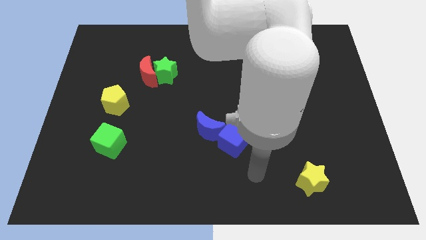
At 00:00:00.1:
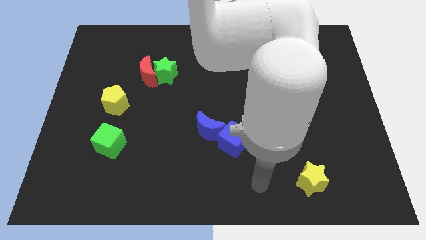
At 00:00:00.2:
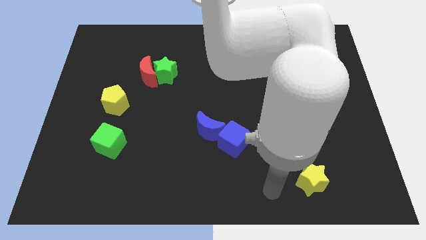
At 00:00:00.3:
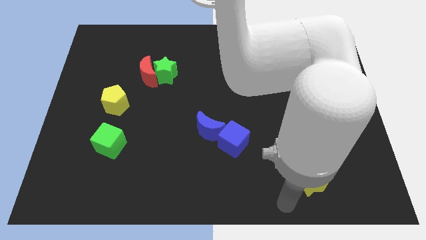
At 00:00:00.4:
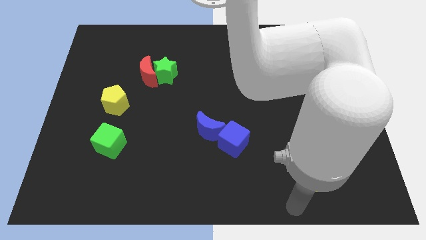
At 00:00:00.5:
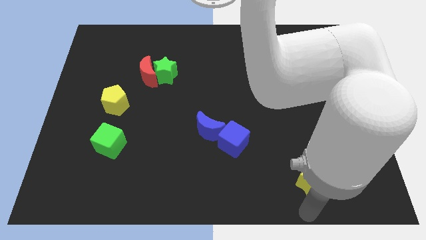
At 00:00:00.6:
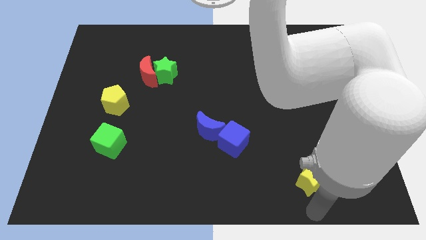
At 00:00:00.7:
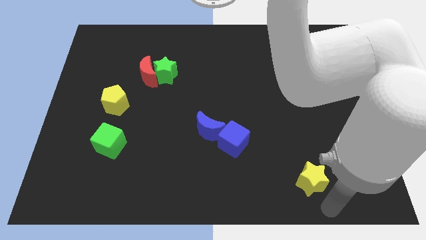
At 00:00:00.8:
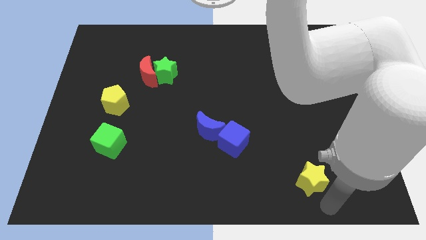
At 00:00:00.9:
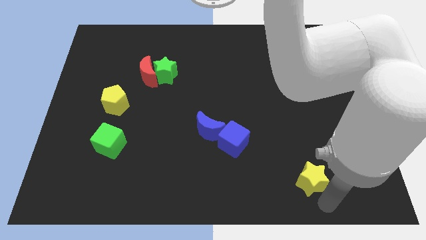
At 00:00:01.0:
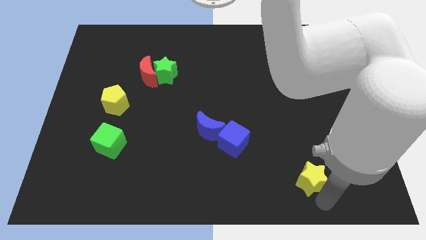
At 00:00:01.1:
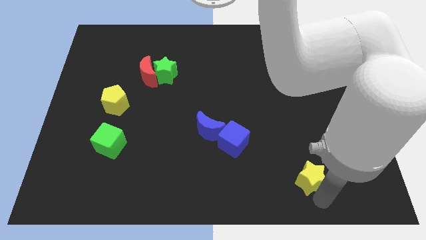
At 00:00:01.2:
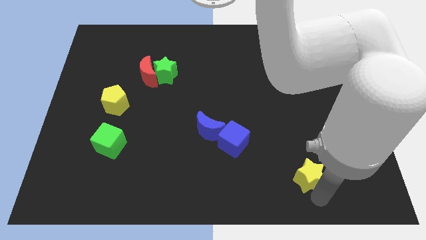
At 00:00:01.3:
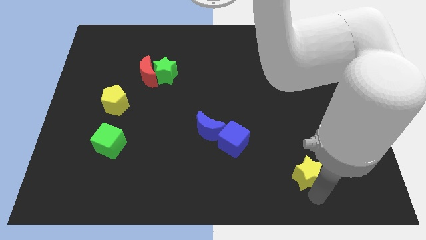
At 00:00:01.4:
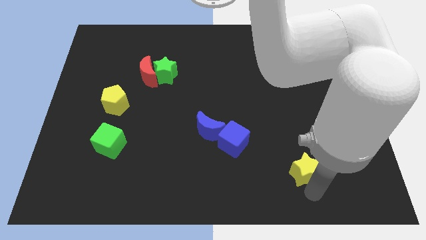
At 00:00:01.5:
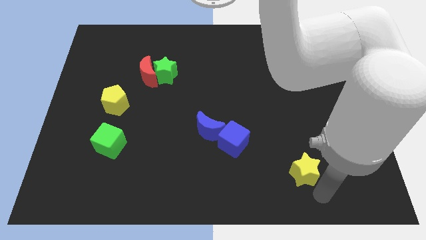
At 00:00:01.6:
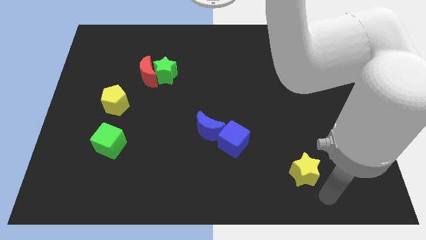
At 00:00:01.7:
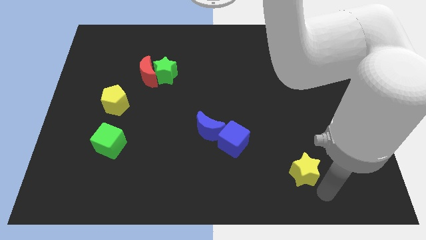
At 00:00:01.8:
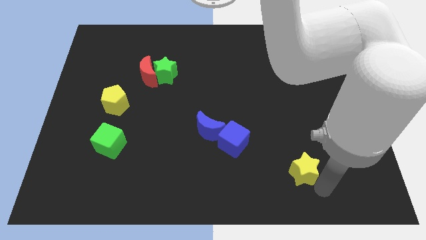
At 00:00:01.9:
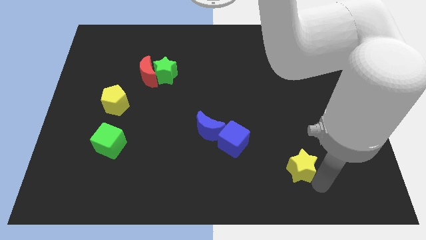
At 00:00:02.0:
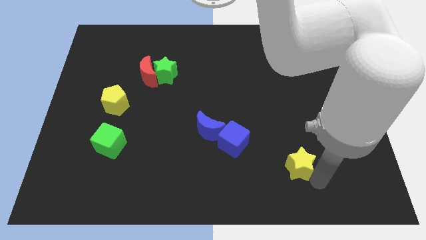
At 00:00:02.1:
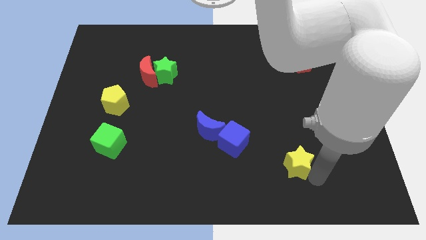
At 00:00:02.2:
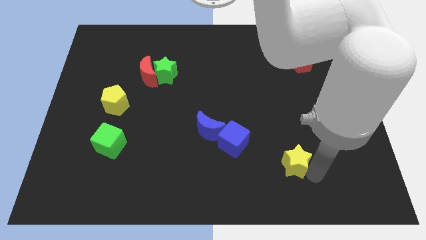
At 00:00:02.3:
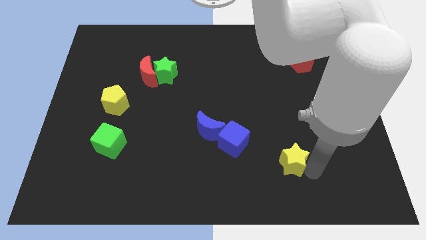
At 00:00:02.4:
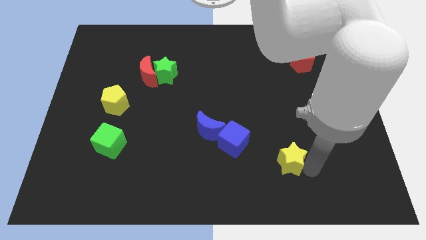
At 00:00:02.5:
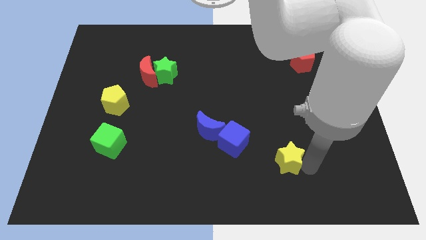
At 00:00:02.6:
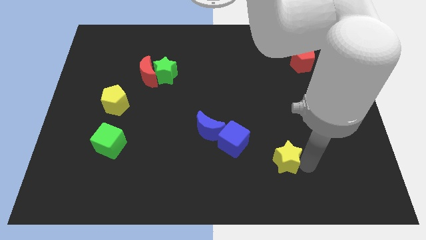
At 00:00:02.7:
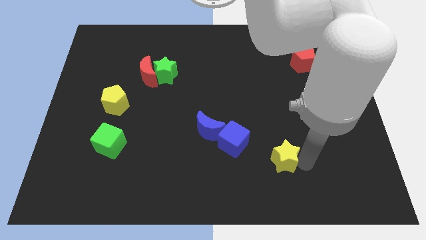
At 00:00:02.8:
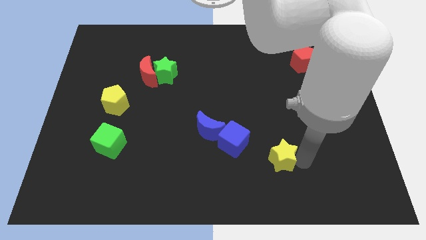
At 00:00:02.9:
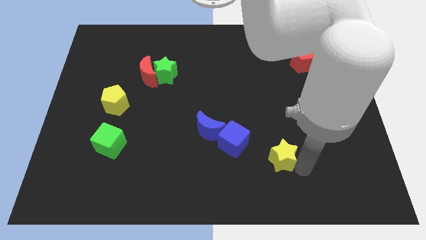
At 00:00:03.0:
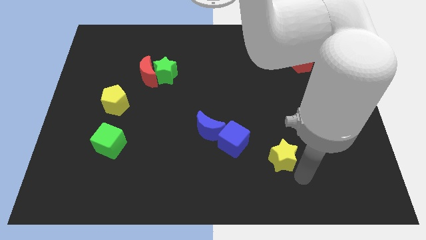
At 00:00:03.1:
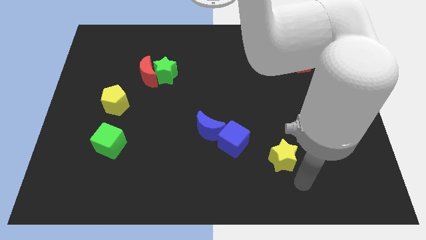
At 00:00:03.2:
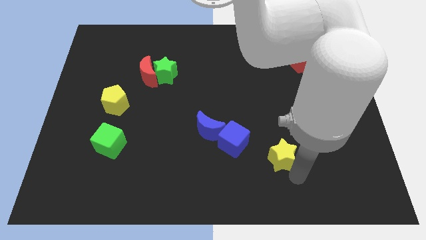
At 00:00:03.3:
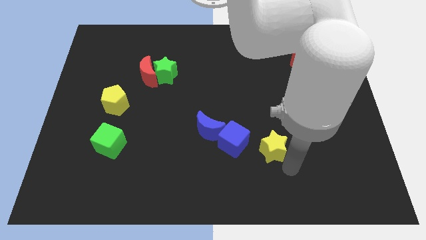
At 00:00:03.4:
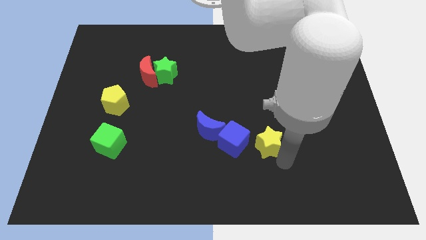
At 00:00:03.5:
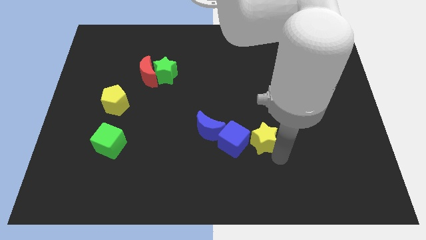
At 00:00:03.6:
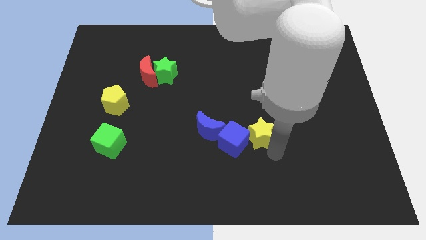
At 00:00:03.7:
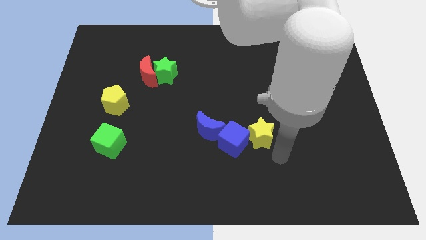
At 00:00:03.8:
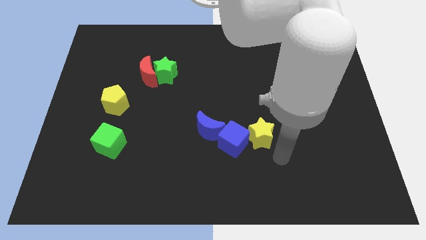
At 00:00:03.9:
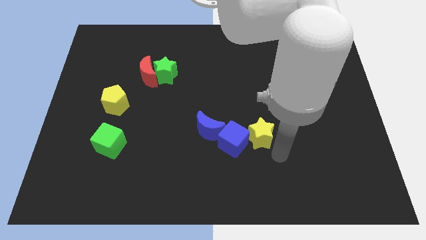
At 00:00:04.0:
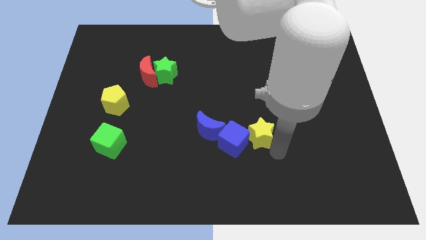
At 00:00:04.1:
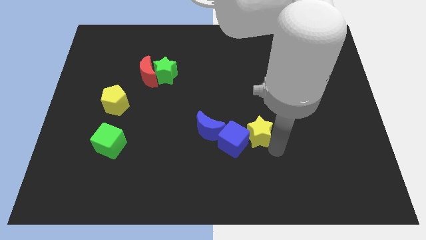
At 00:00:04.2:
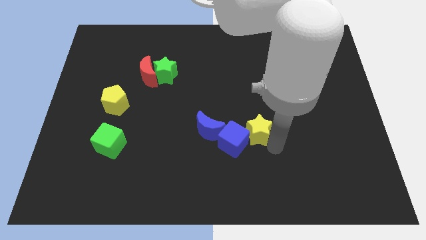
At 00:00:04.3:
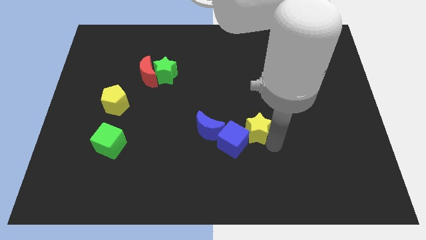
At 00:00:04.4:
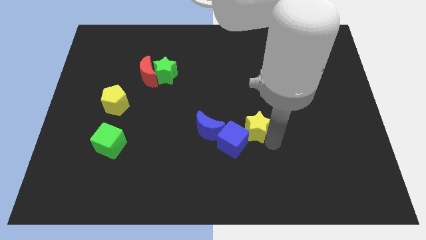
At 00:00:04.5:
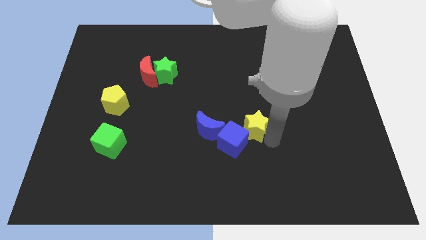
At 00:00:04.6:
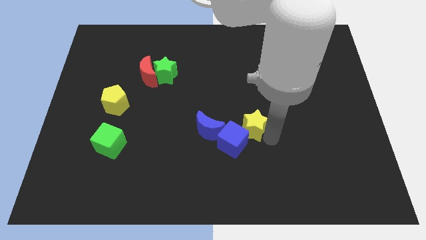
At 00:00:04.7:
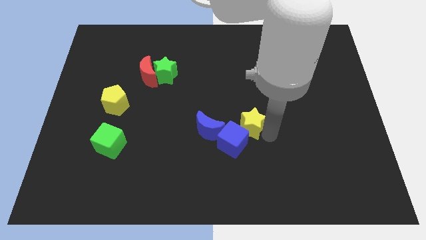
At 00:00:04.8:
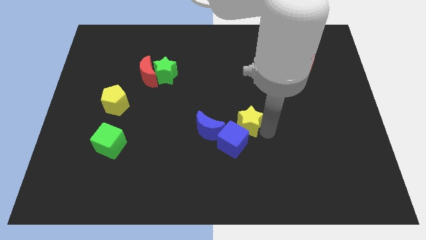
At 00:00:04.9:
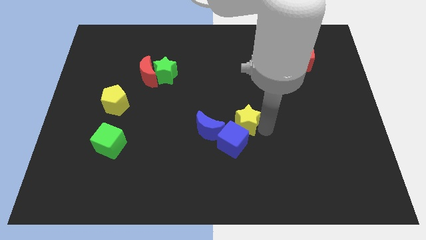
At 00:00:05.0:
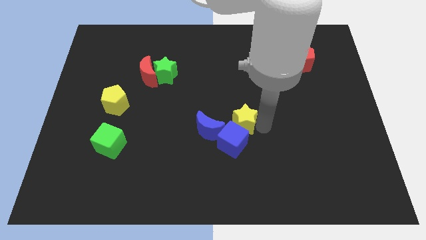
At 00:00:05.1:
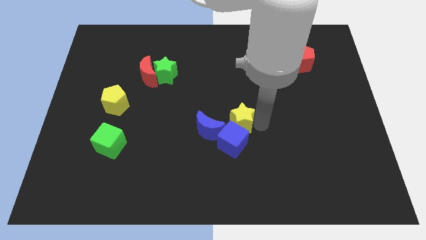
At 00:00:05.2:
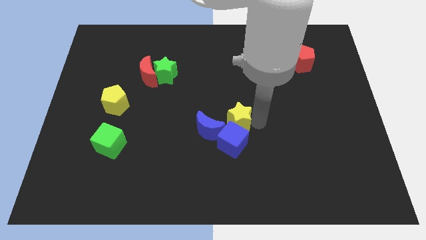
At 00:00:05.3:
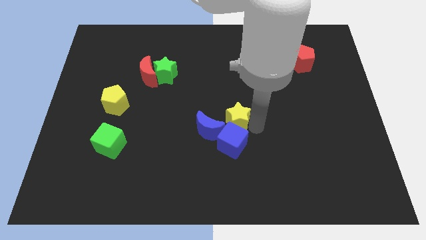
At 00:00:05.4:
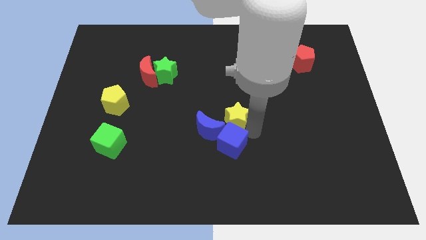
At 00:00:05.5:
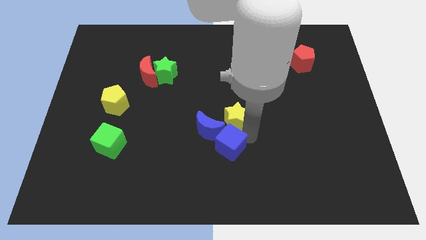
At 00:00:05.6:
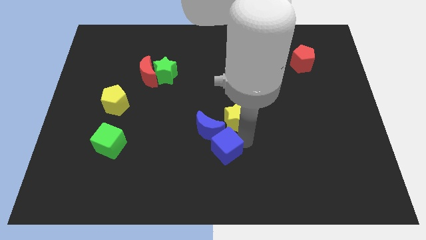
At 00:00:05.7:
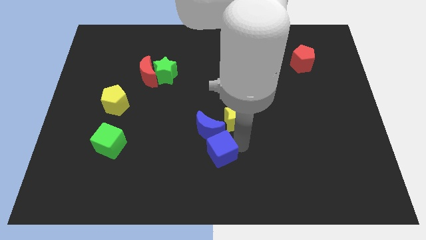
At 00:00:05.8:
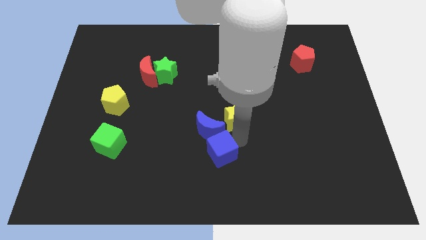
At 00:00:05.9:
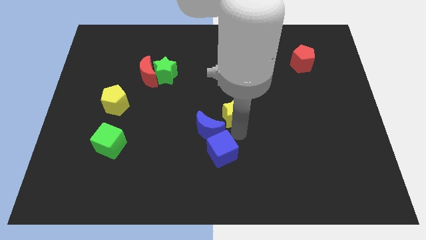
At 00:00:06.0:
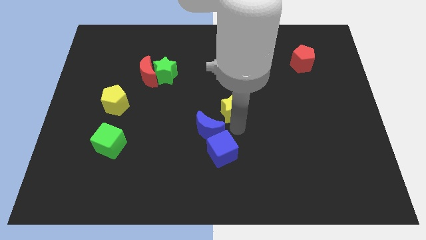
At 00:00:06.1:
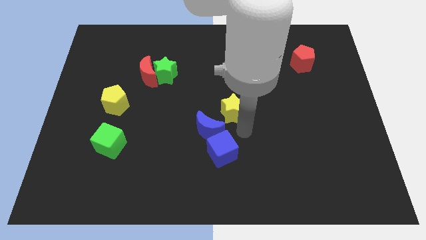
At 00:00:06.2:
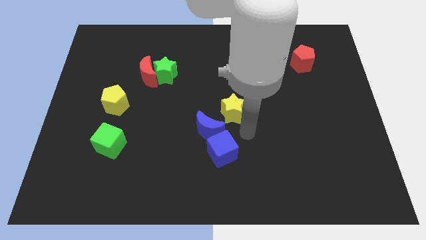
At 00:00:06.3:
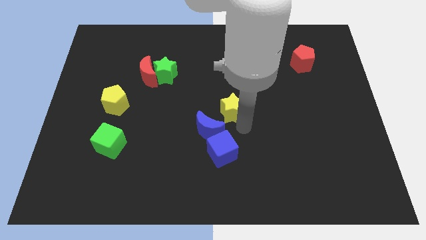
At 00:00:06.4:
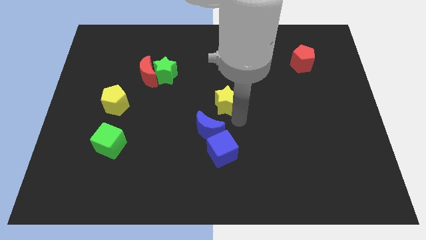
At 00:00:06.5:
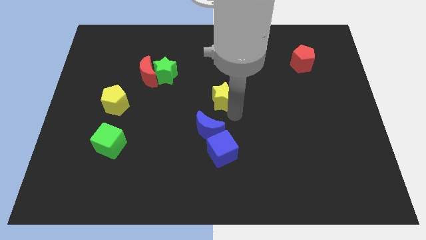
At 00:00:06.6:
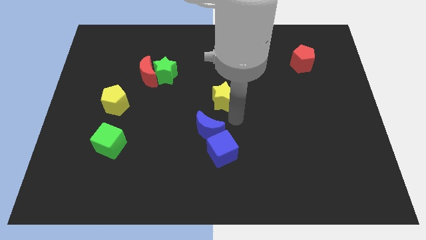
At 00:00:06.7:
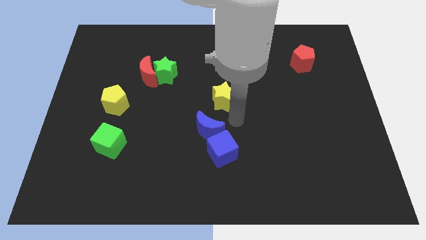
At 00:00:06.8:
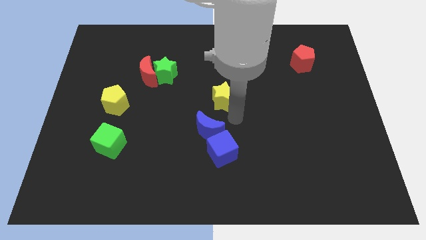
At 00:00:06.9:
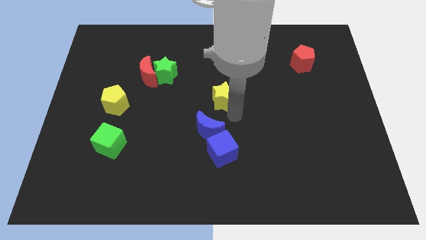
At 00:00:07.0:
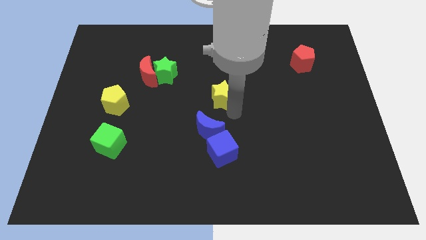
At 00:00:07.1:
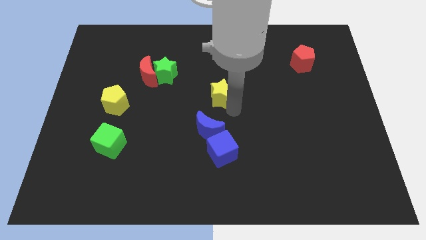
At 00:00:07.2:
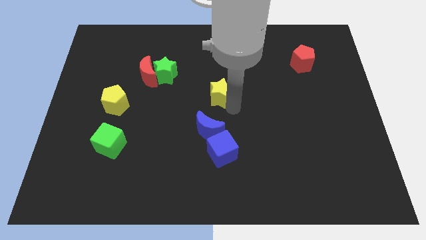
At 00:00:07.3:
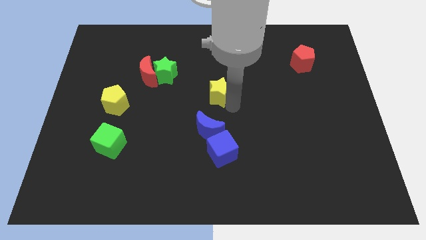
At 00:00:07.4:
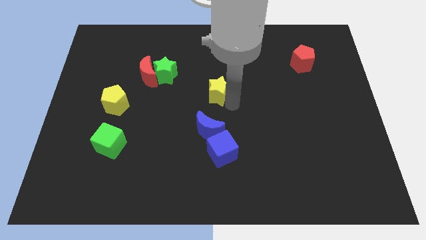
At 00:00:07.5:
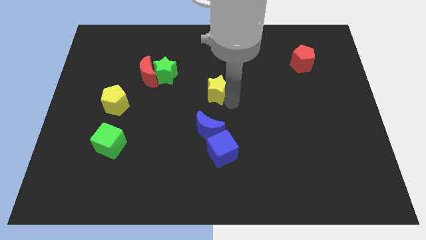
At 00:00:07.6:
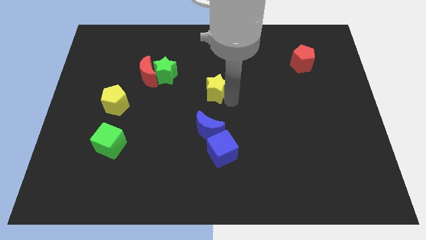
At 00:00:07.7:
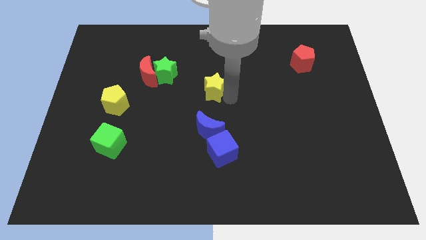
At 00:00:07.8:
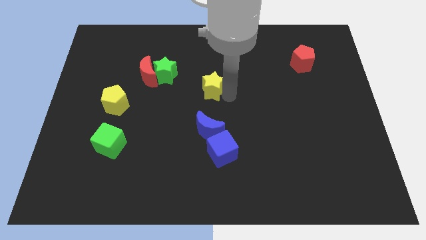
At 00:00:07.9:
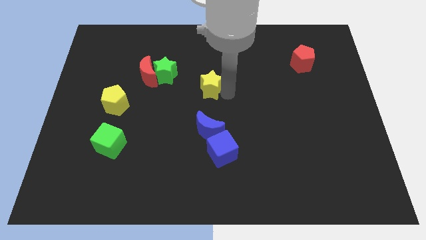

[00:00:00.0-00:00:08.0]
slide the yellow star just right of the green star
